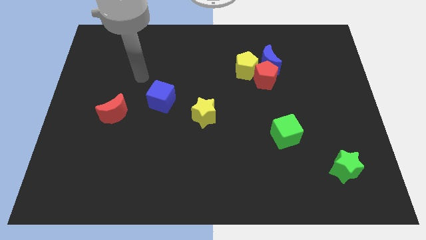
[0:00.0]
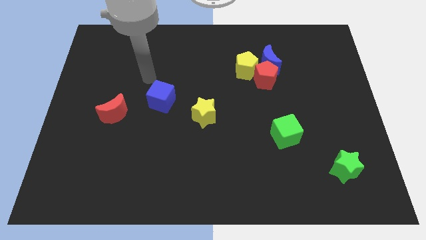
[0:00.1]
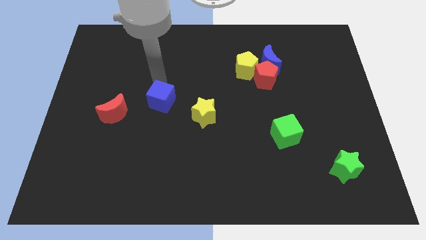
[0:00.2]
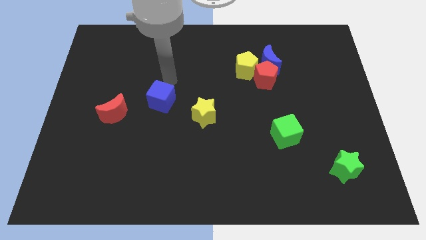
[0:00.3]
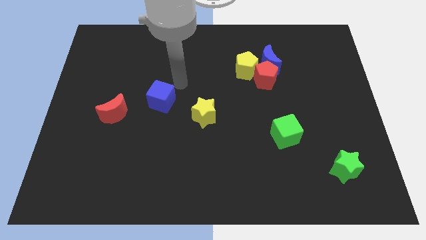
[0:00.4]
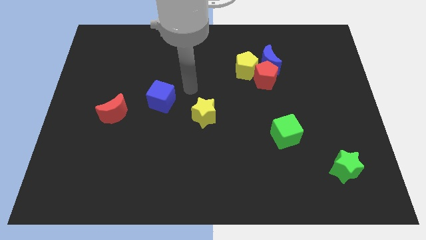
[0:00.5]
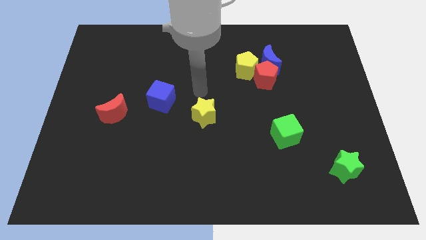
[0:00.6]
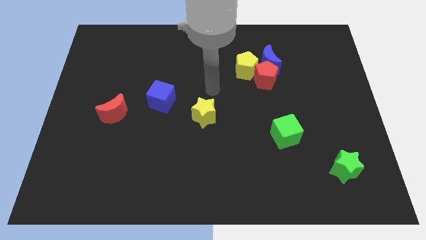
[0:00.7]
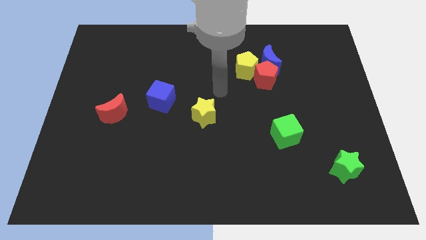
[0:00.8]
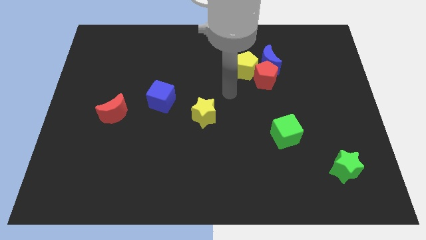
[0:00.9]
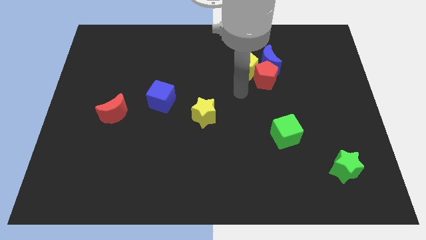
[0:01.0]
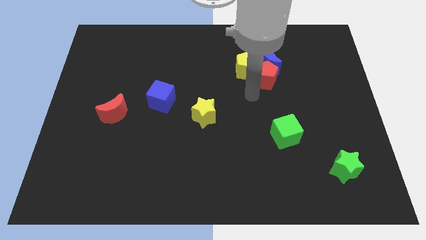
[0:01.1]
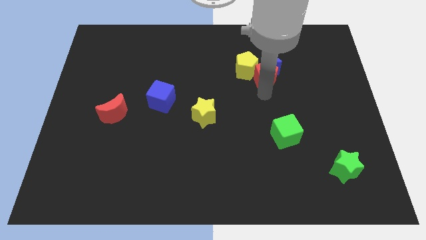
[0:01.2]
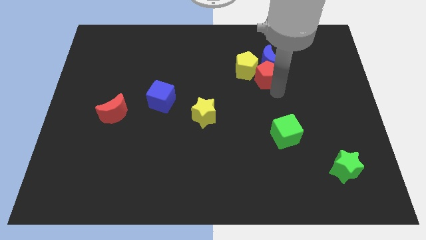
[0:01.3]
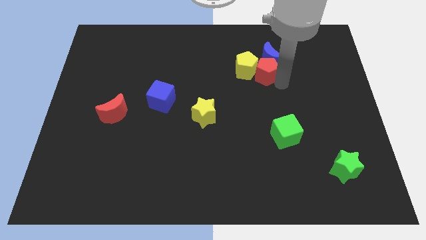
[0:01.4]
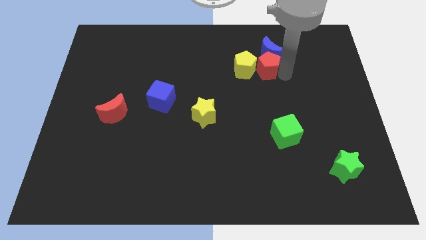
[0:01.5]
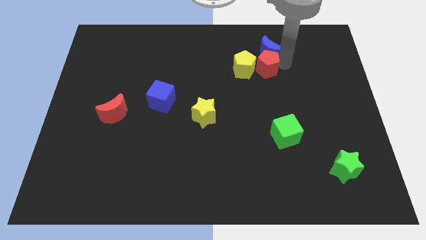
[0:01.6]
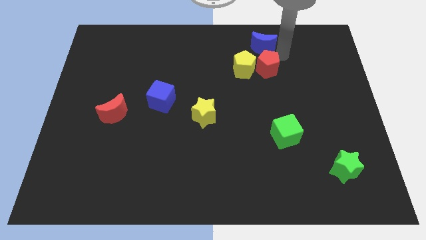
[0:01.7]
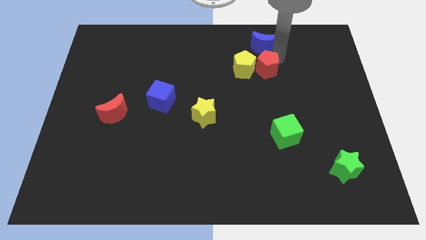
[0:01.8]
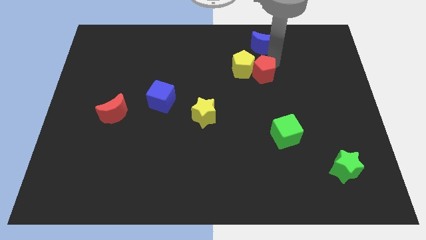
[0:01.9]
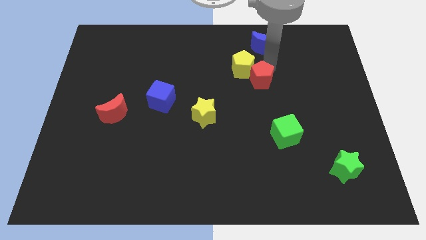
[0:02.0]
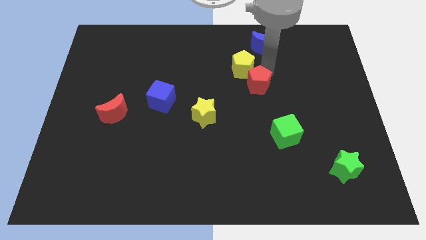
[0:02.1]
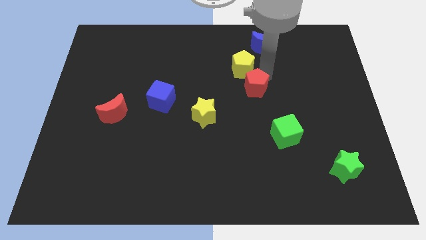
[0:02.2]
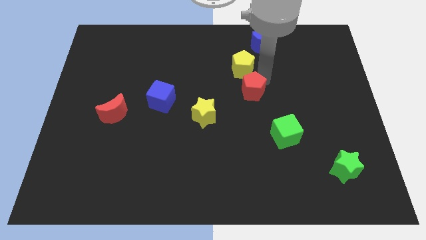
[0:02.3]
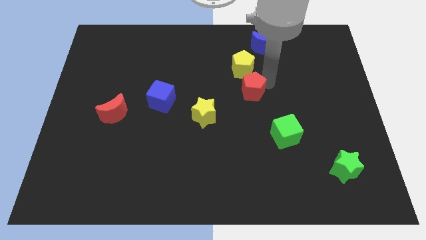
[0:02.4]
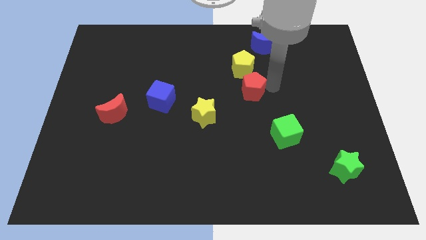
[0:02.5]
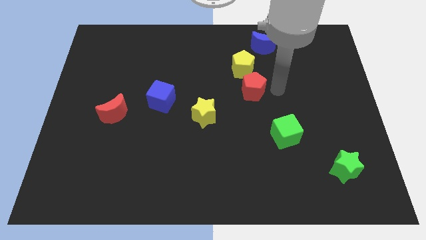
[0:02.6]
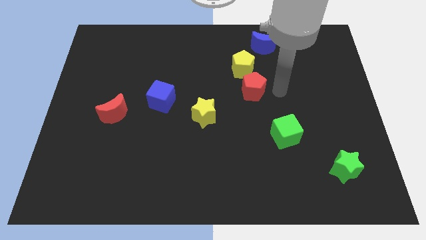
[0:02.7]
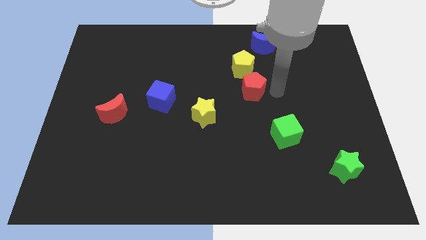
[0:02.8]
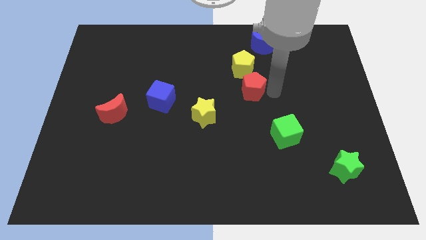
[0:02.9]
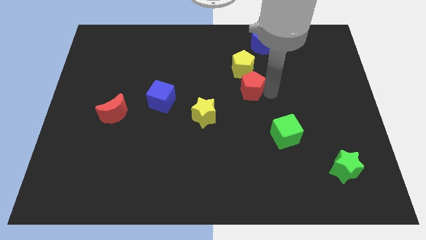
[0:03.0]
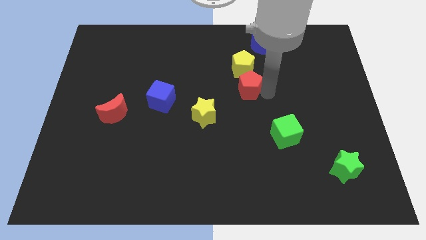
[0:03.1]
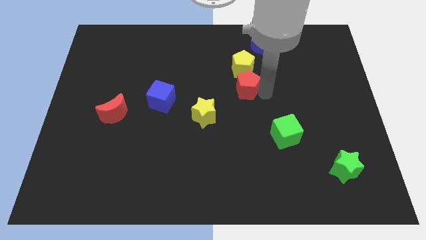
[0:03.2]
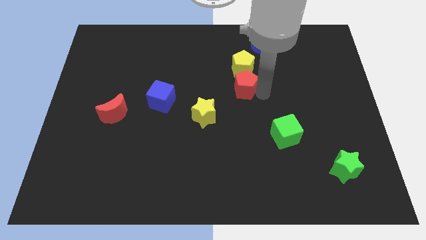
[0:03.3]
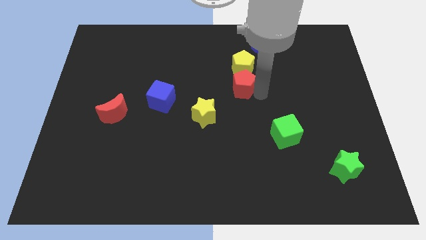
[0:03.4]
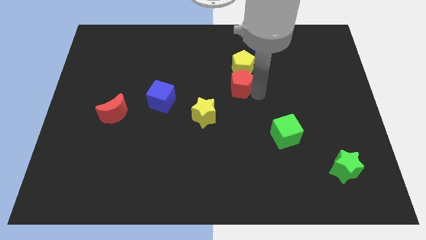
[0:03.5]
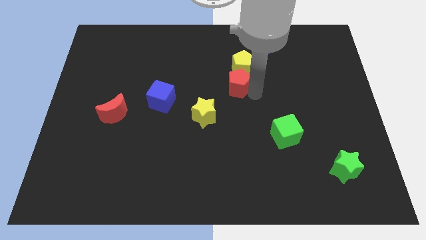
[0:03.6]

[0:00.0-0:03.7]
slightly slide the red pentagon left

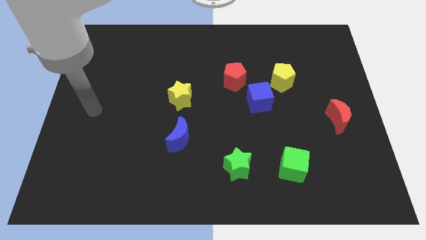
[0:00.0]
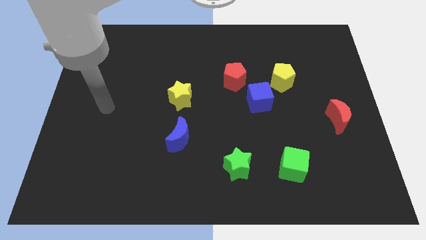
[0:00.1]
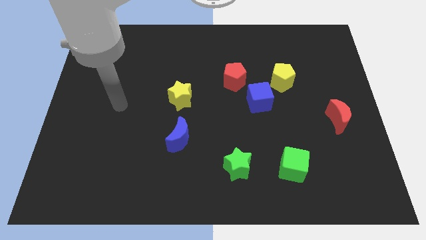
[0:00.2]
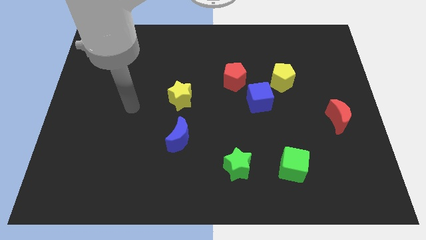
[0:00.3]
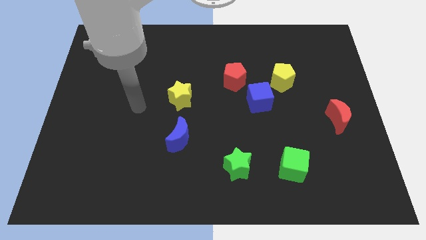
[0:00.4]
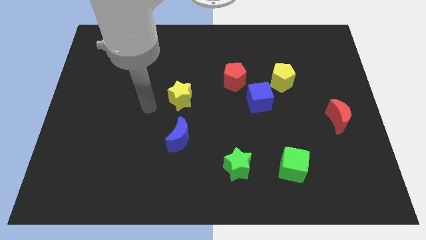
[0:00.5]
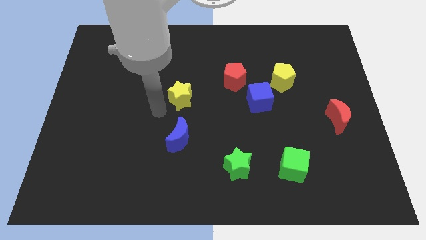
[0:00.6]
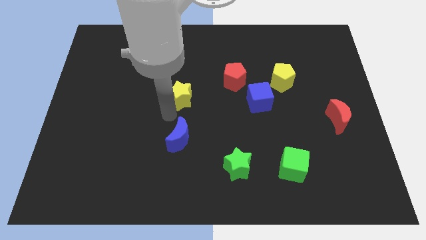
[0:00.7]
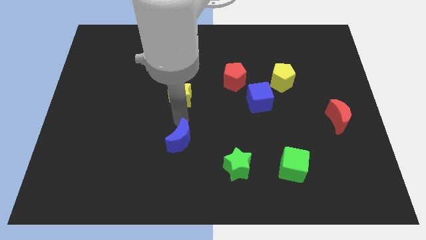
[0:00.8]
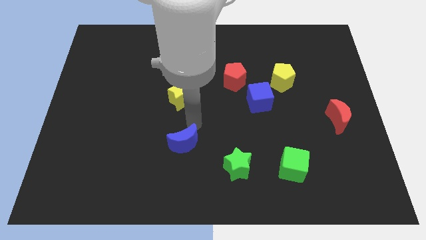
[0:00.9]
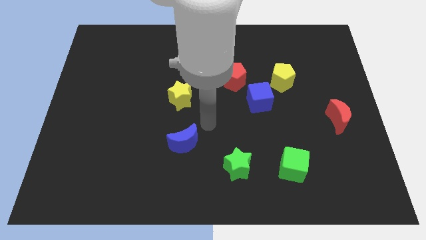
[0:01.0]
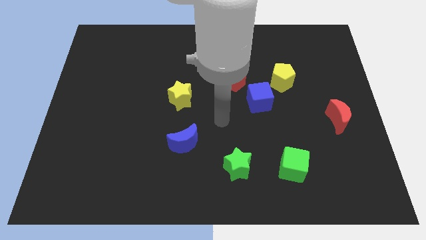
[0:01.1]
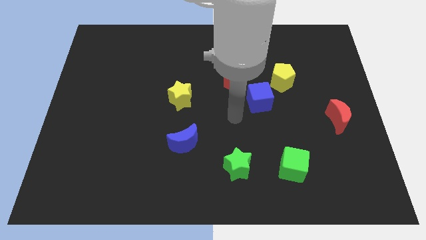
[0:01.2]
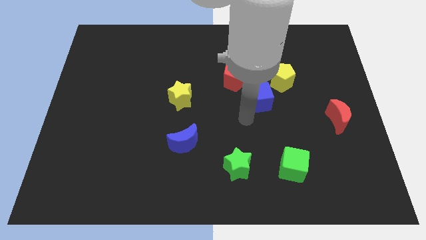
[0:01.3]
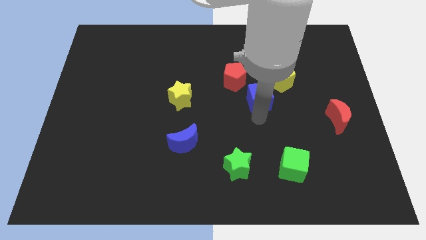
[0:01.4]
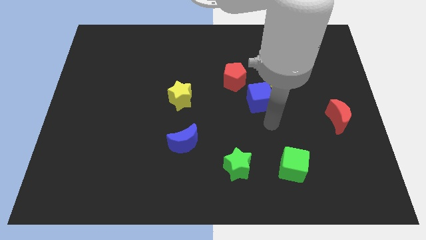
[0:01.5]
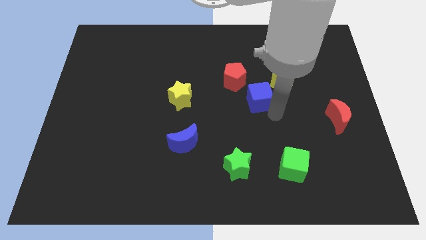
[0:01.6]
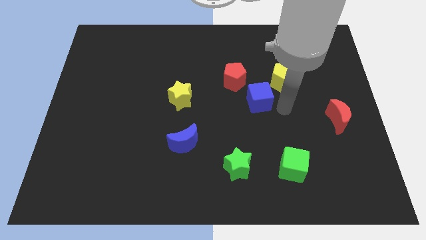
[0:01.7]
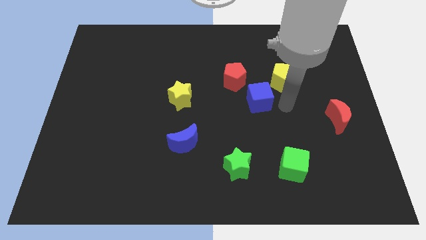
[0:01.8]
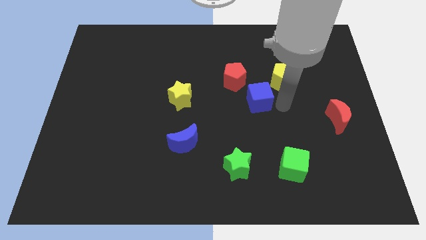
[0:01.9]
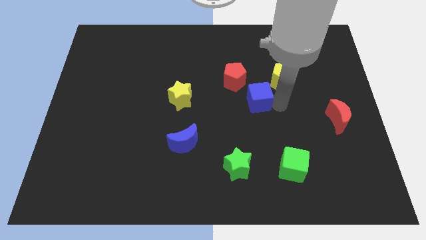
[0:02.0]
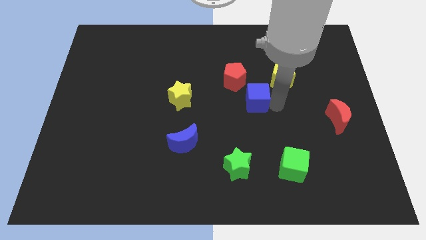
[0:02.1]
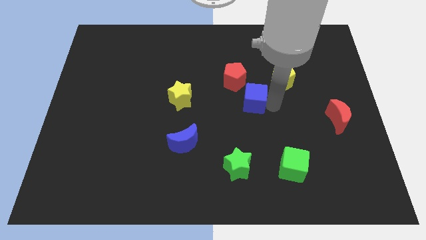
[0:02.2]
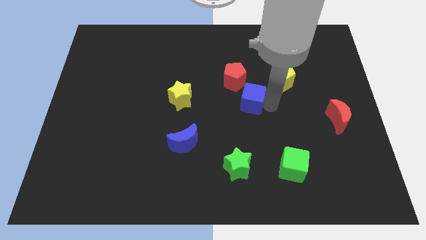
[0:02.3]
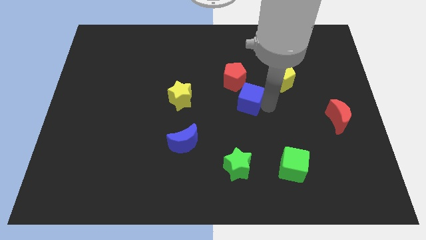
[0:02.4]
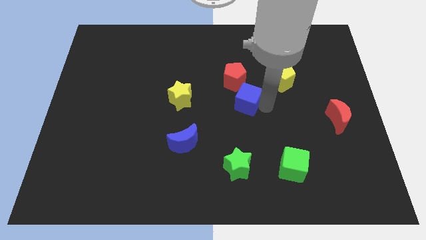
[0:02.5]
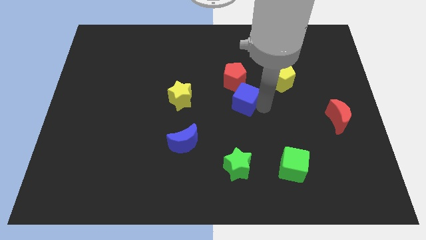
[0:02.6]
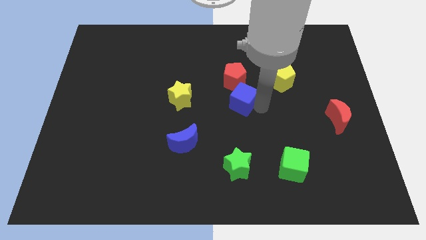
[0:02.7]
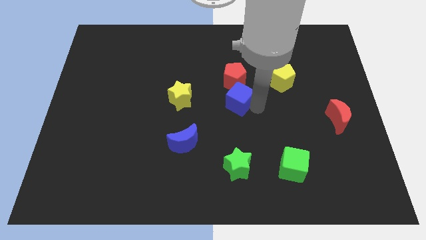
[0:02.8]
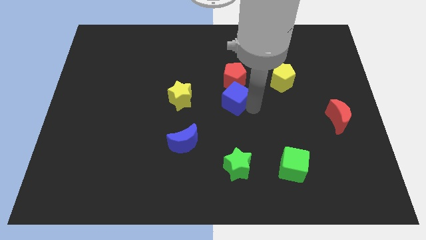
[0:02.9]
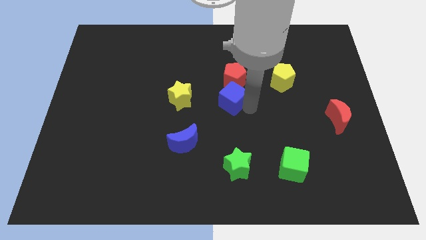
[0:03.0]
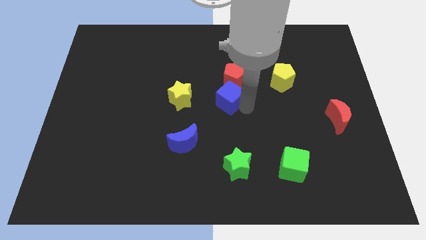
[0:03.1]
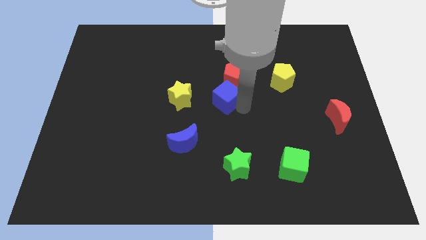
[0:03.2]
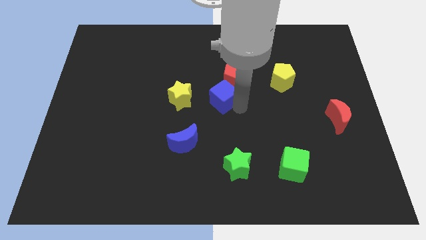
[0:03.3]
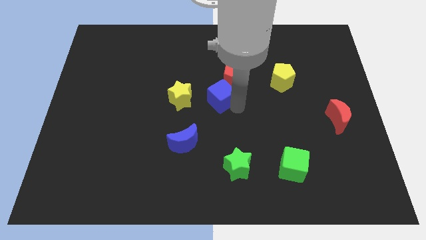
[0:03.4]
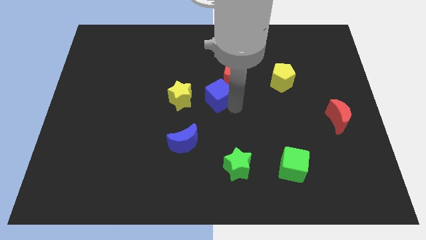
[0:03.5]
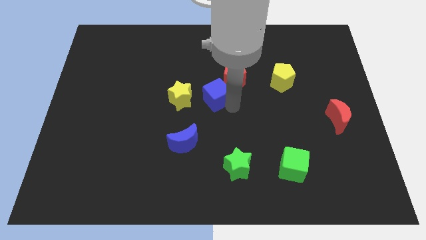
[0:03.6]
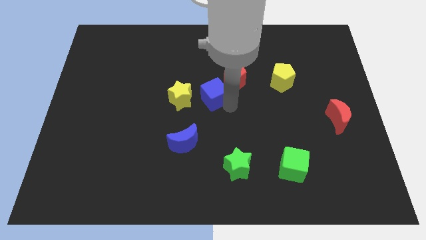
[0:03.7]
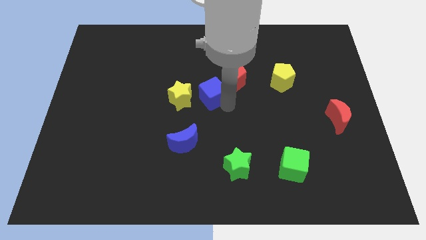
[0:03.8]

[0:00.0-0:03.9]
move the blue cube upwards and left a little bit

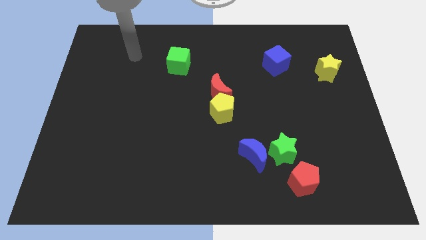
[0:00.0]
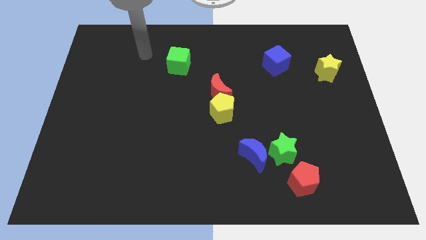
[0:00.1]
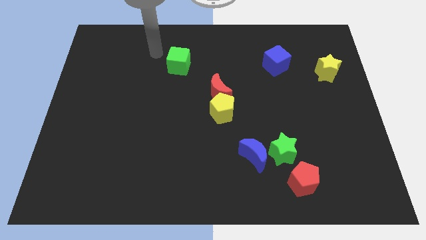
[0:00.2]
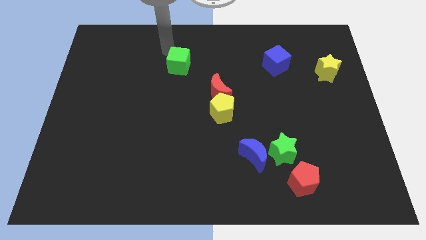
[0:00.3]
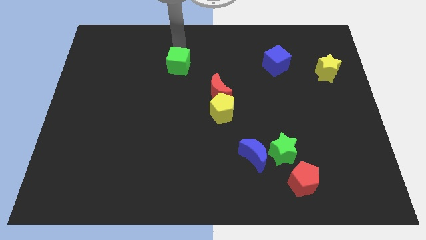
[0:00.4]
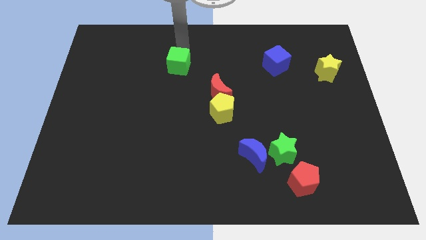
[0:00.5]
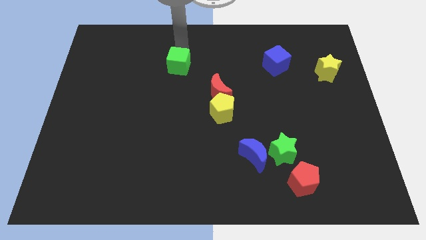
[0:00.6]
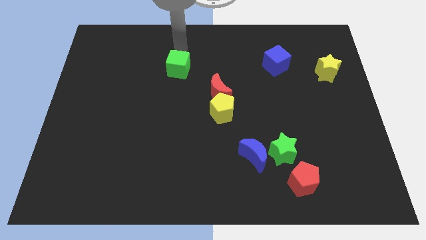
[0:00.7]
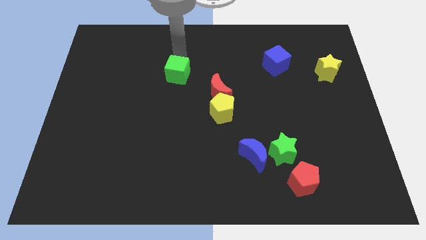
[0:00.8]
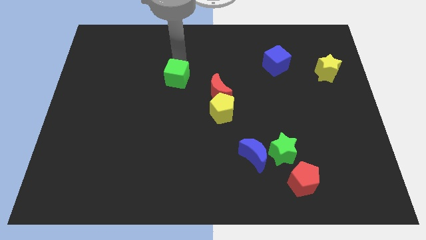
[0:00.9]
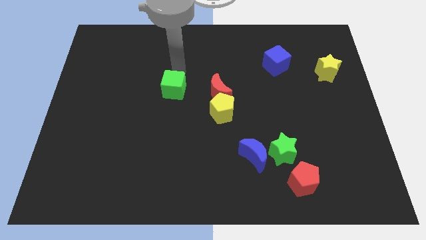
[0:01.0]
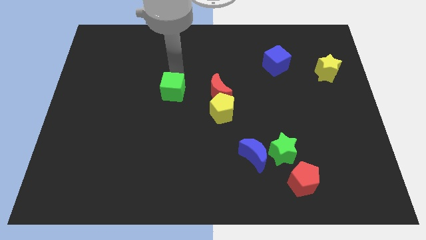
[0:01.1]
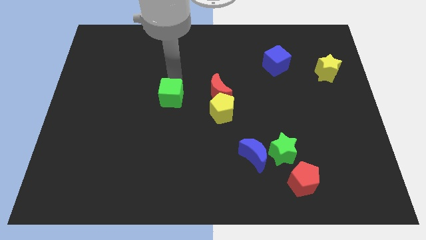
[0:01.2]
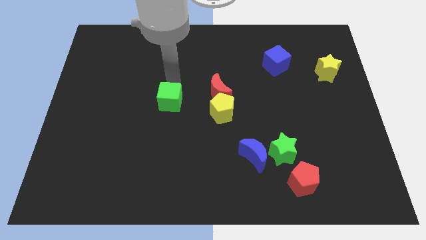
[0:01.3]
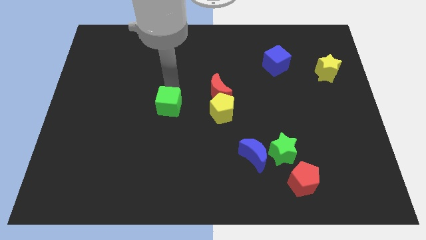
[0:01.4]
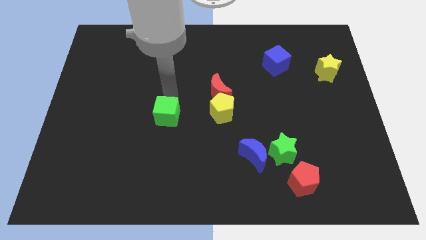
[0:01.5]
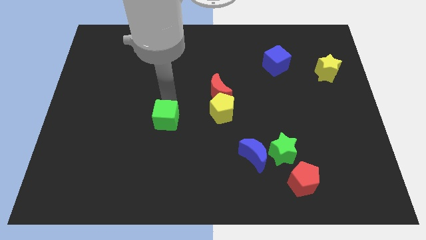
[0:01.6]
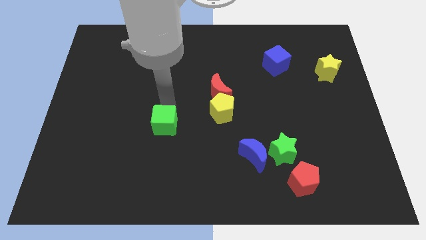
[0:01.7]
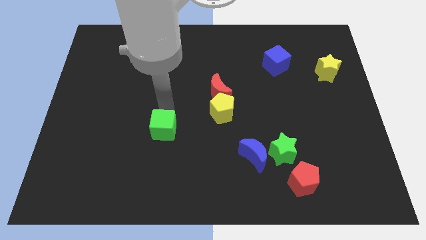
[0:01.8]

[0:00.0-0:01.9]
move the green cube down
